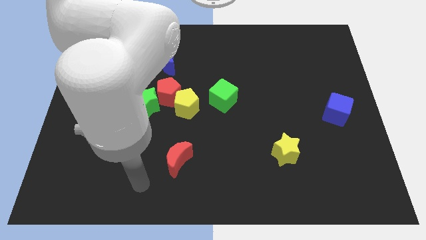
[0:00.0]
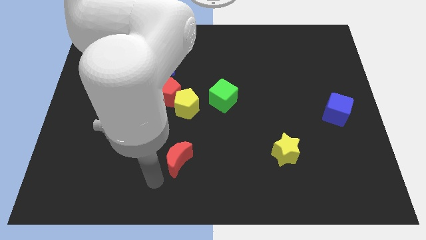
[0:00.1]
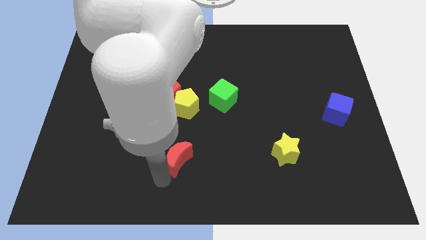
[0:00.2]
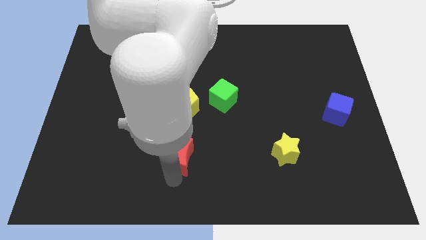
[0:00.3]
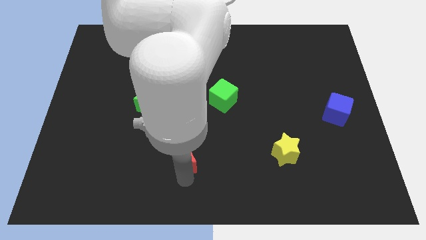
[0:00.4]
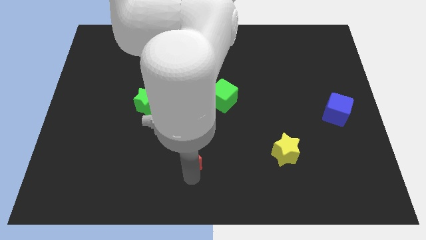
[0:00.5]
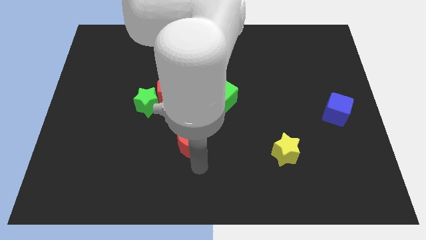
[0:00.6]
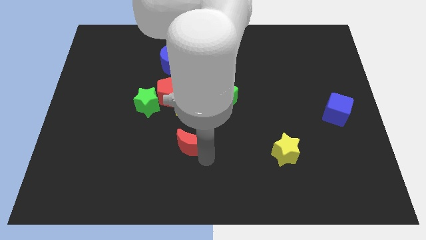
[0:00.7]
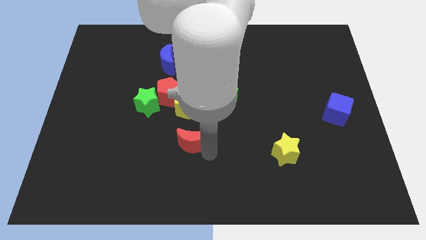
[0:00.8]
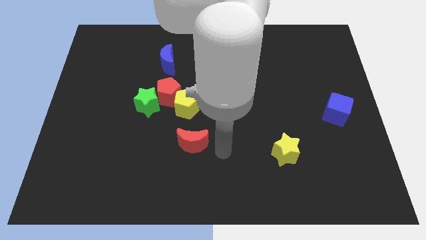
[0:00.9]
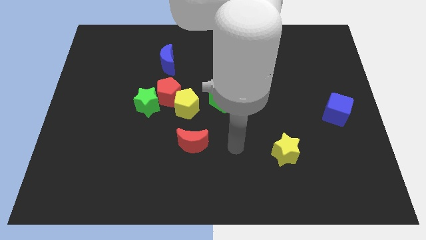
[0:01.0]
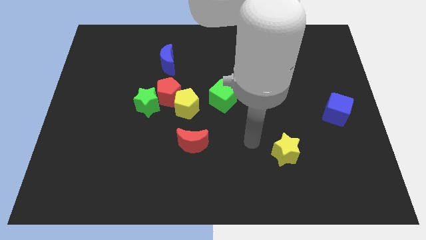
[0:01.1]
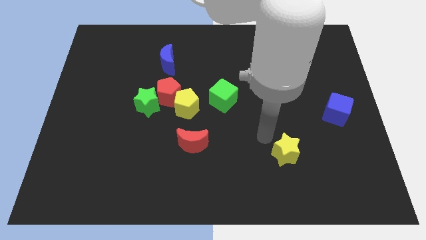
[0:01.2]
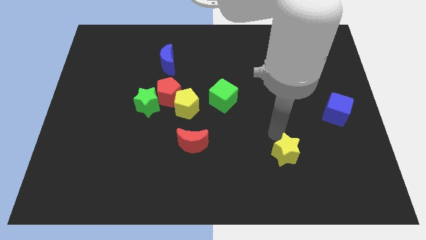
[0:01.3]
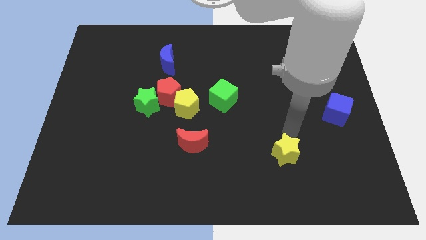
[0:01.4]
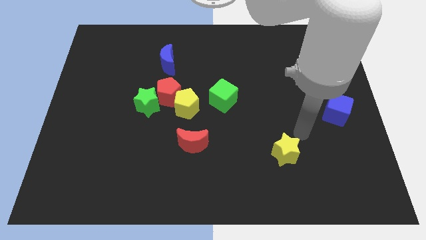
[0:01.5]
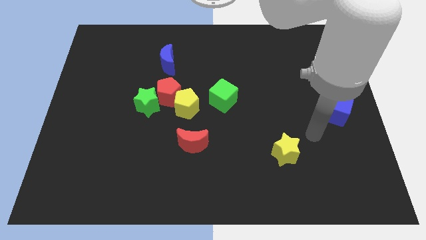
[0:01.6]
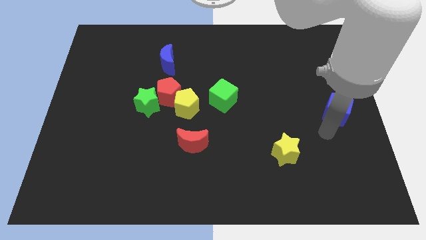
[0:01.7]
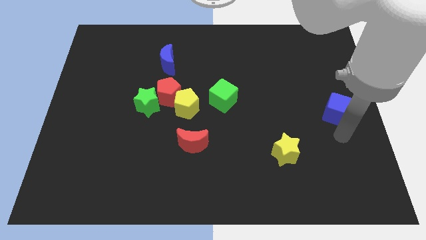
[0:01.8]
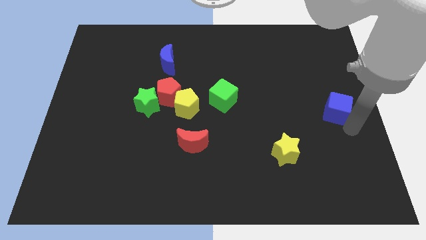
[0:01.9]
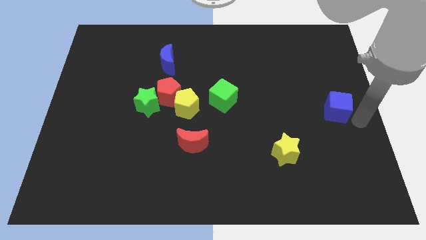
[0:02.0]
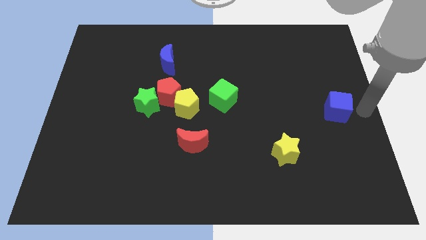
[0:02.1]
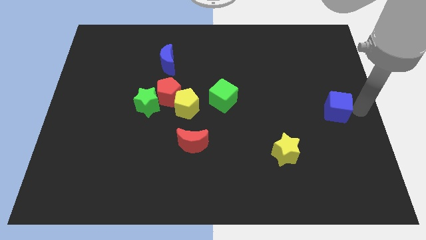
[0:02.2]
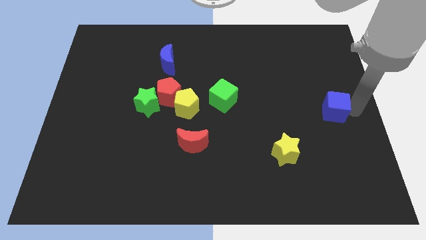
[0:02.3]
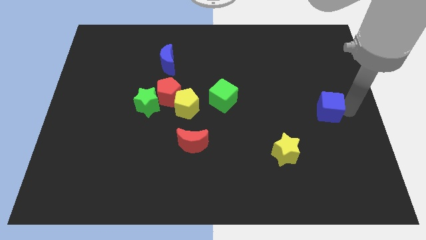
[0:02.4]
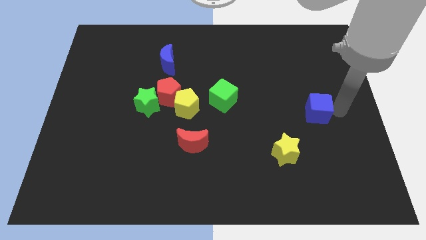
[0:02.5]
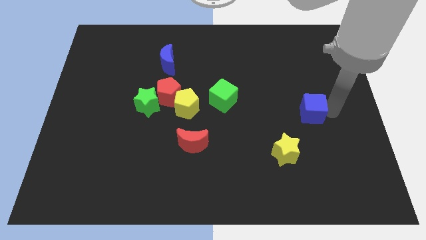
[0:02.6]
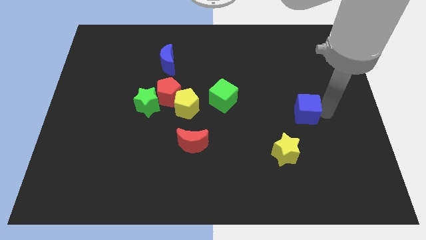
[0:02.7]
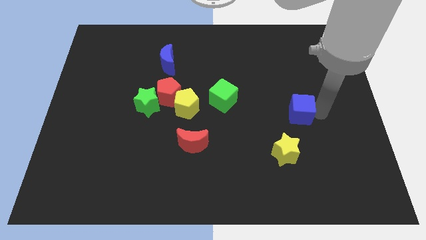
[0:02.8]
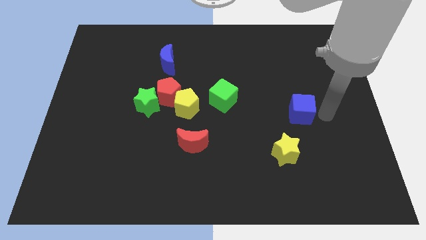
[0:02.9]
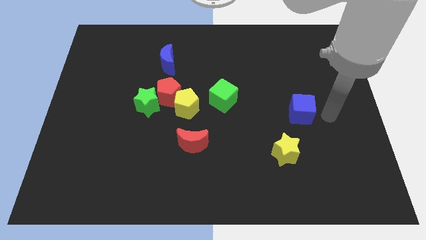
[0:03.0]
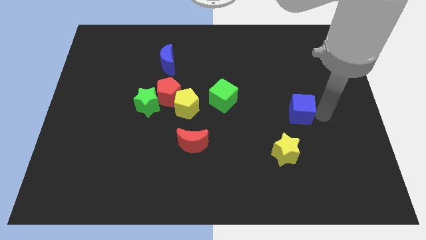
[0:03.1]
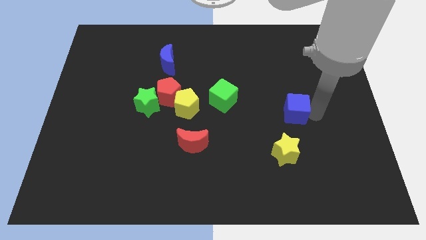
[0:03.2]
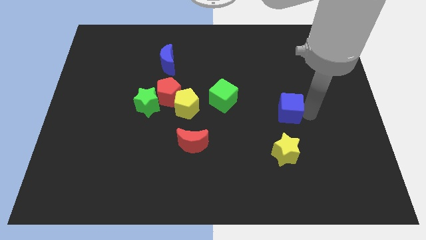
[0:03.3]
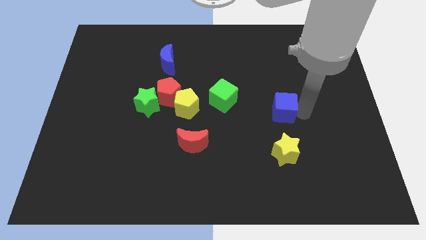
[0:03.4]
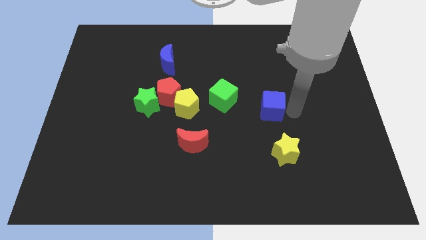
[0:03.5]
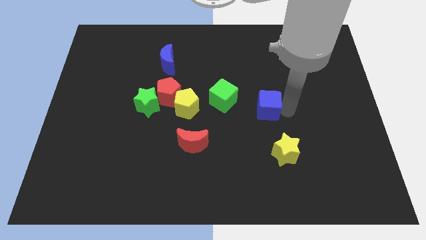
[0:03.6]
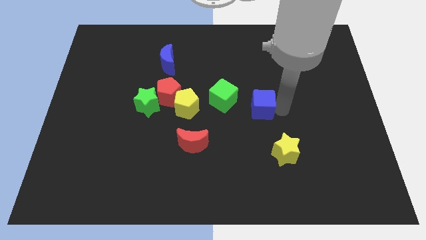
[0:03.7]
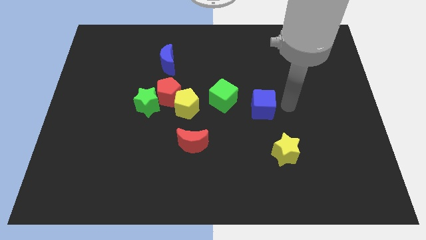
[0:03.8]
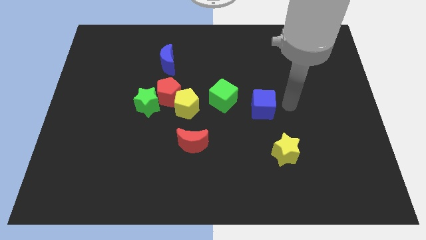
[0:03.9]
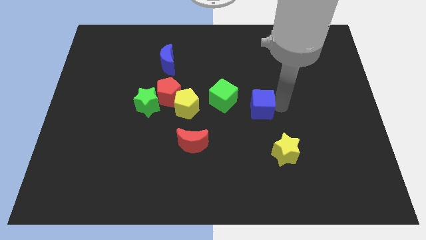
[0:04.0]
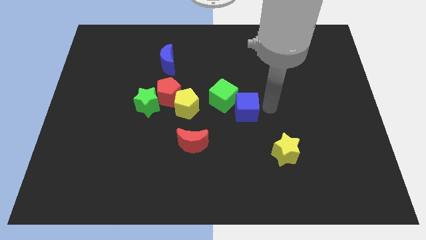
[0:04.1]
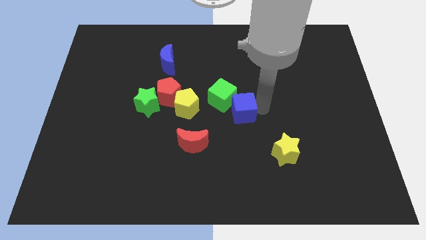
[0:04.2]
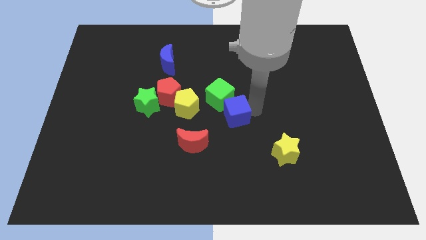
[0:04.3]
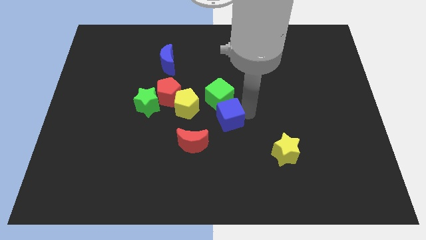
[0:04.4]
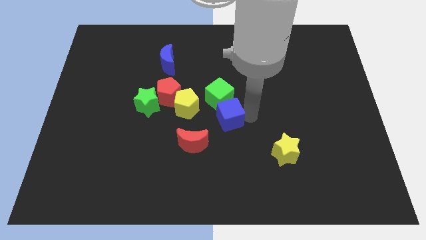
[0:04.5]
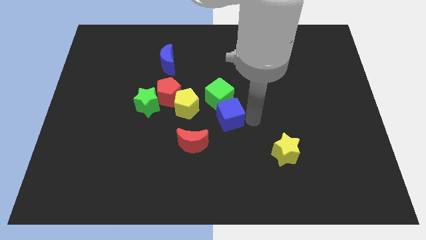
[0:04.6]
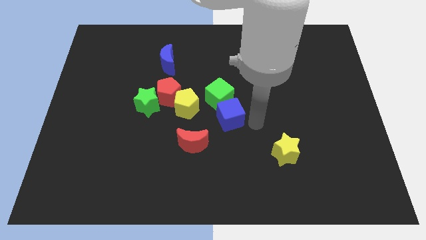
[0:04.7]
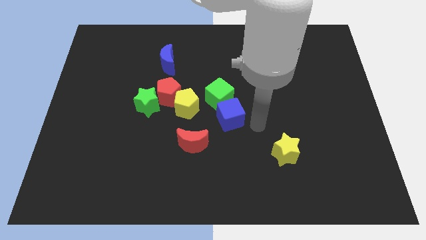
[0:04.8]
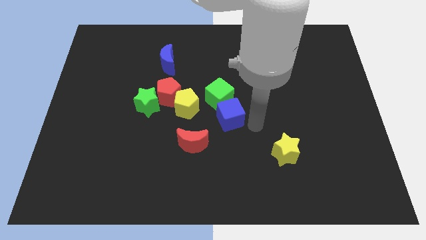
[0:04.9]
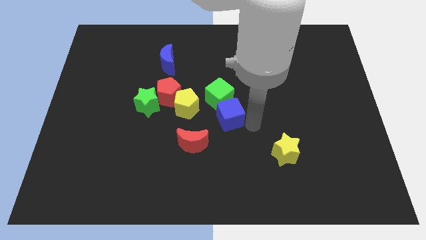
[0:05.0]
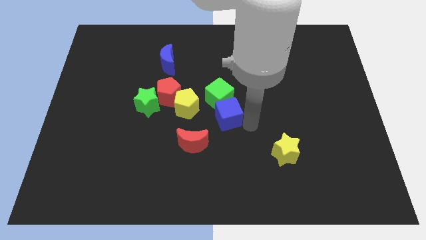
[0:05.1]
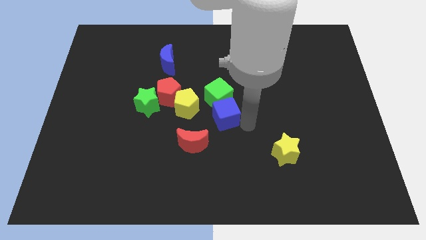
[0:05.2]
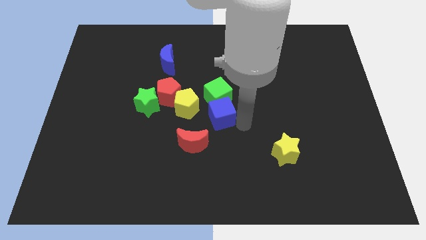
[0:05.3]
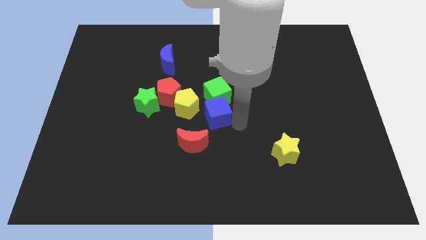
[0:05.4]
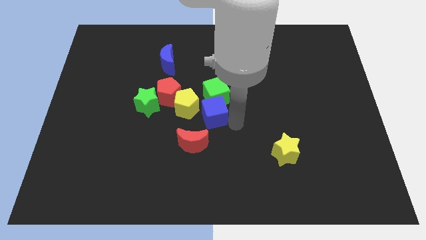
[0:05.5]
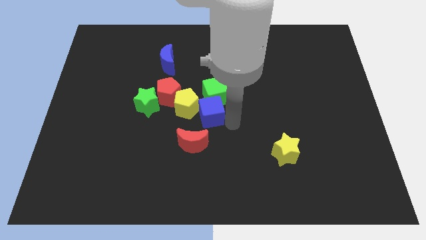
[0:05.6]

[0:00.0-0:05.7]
put the blue cube next to the yellow pentagon

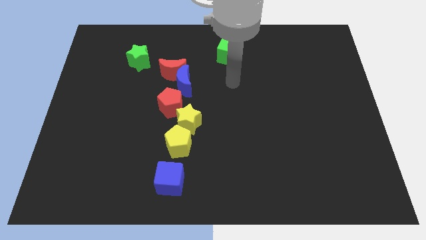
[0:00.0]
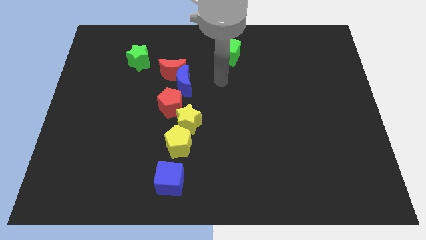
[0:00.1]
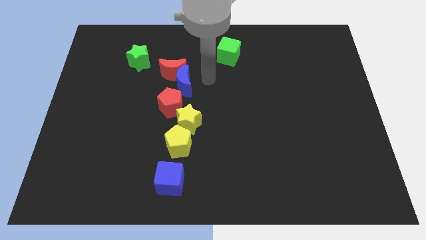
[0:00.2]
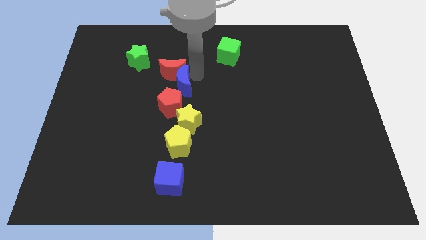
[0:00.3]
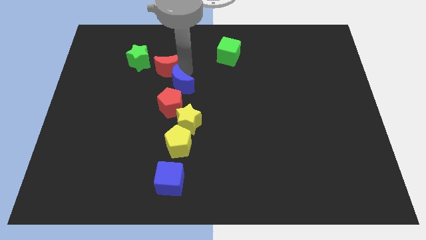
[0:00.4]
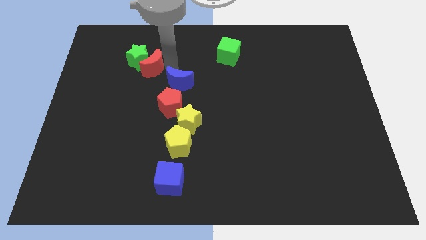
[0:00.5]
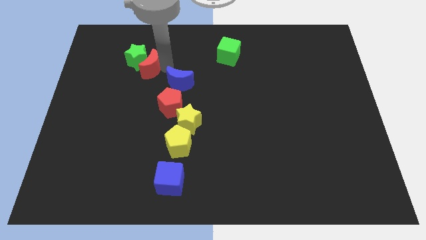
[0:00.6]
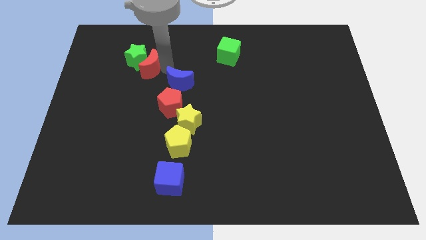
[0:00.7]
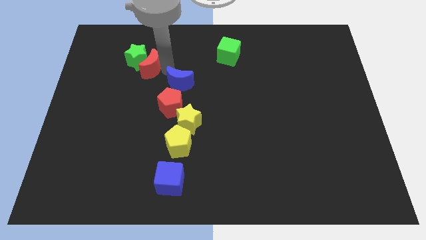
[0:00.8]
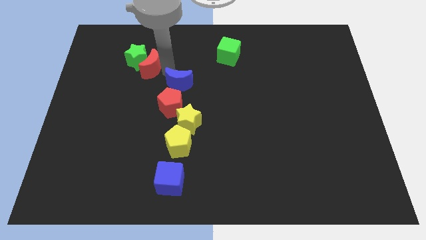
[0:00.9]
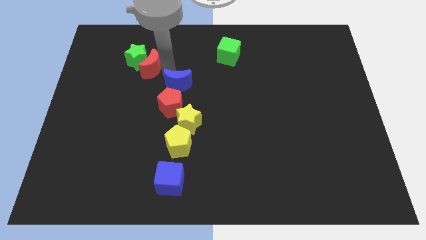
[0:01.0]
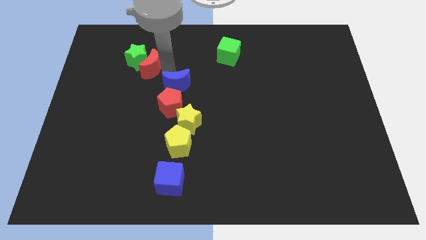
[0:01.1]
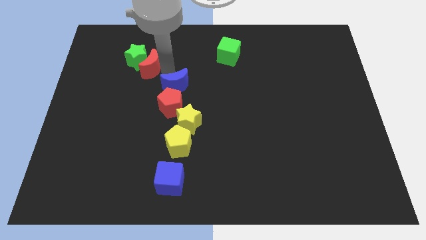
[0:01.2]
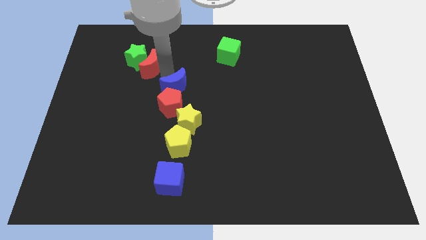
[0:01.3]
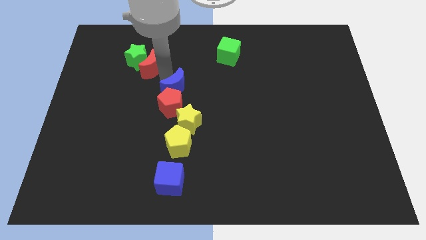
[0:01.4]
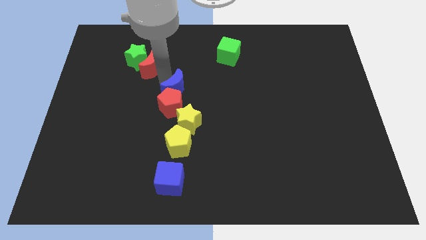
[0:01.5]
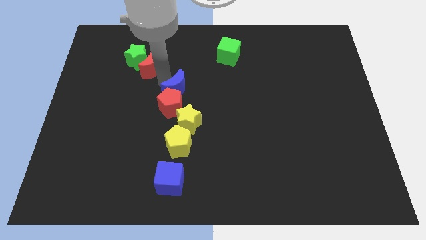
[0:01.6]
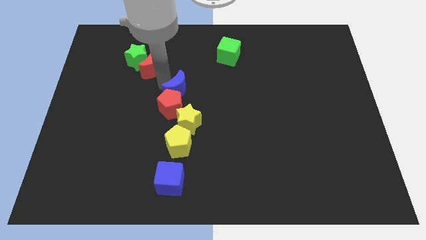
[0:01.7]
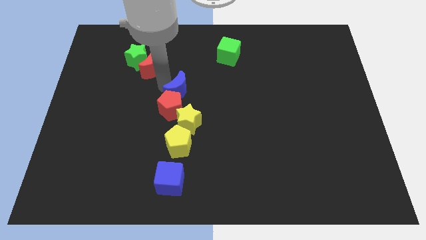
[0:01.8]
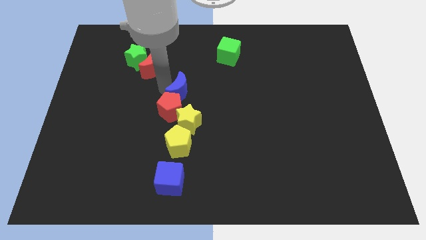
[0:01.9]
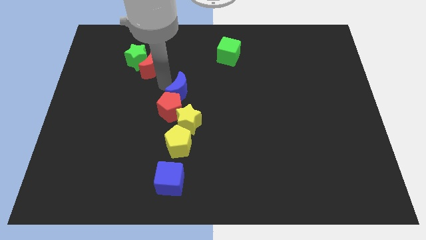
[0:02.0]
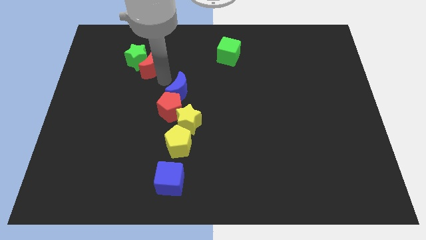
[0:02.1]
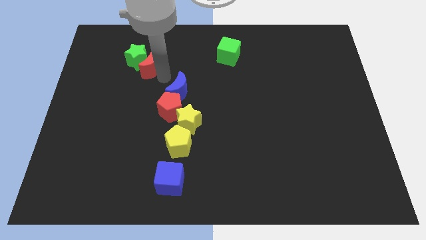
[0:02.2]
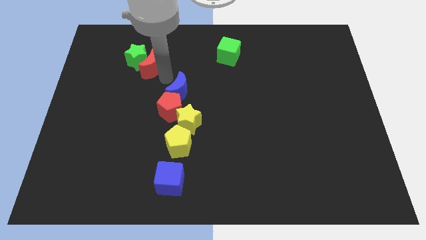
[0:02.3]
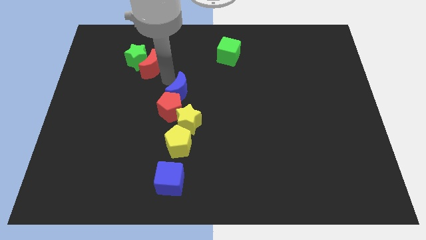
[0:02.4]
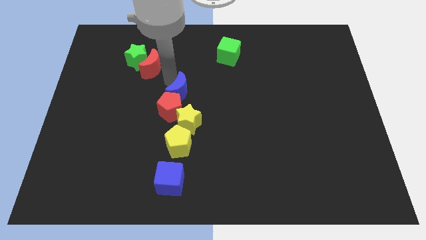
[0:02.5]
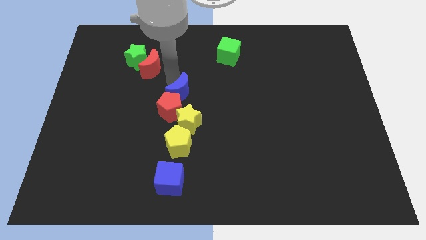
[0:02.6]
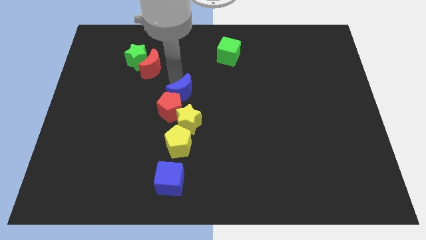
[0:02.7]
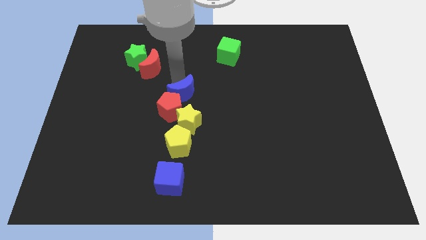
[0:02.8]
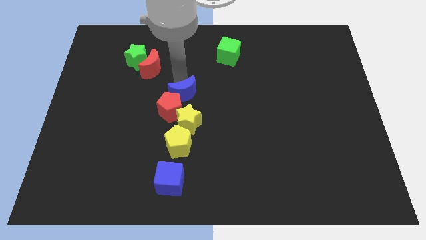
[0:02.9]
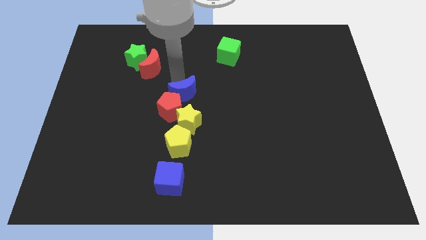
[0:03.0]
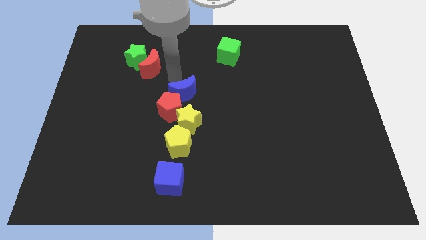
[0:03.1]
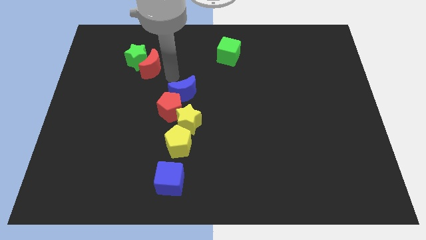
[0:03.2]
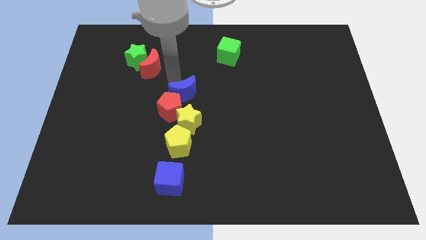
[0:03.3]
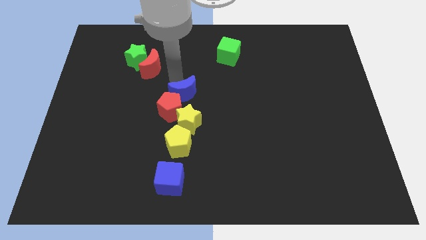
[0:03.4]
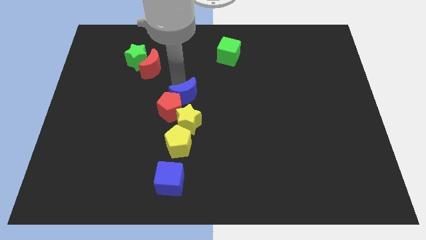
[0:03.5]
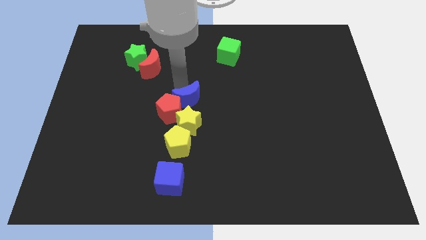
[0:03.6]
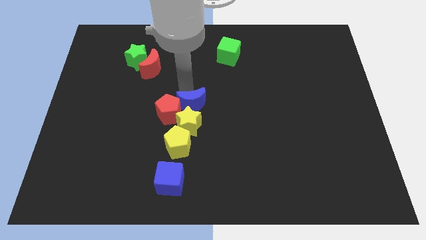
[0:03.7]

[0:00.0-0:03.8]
push the blue moon towards the yellow star
